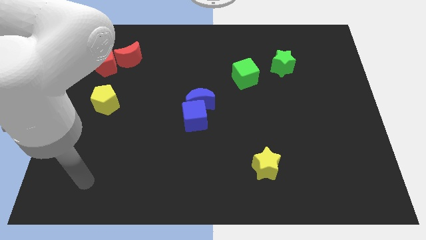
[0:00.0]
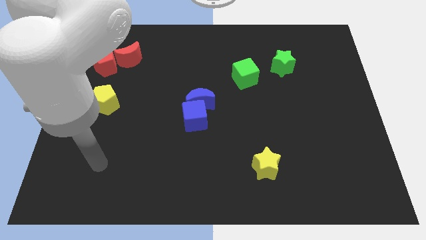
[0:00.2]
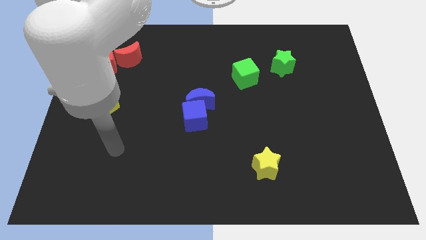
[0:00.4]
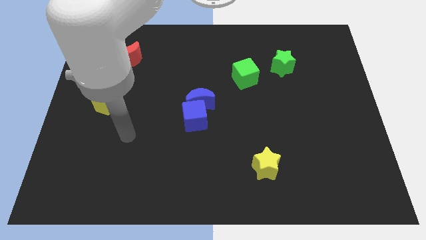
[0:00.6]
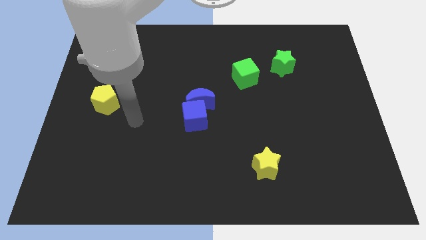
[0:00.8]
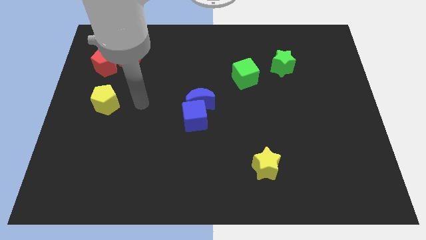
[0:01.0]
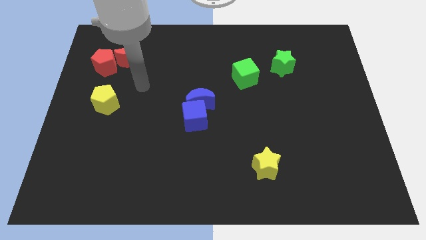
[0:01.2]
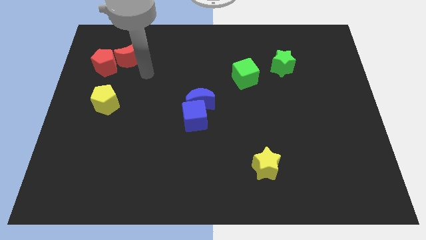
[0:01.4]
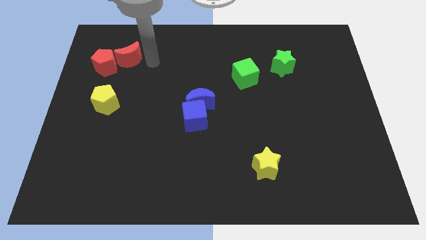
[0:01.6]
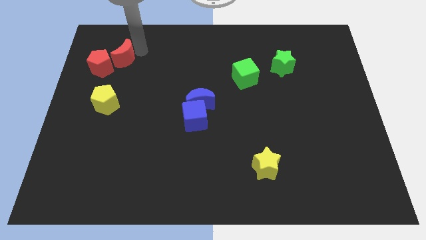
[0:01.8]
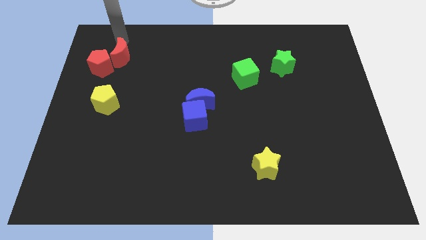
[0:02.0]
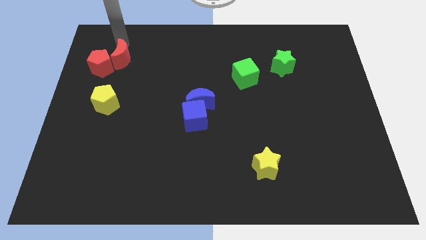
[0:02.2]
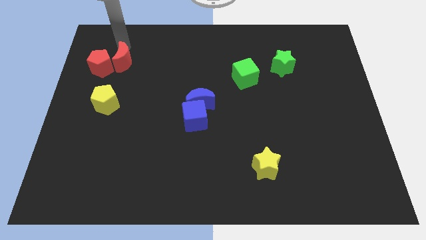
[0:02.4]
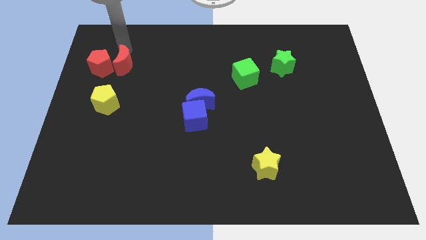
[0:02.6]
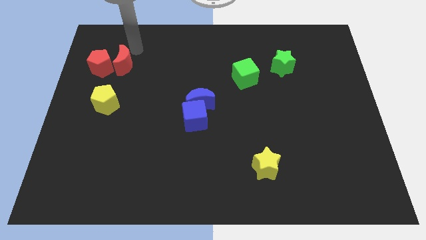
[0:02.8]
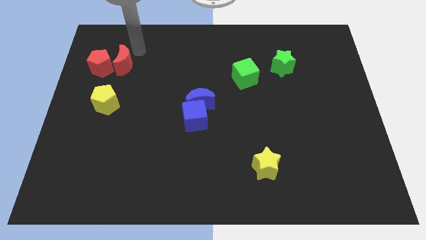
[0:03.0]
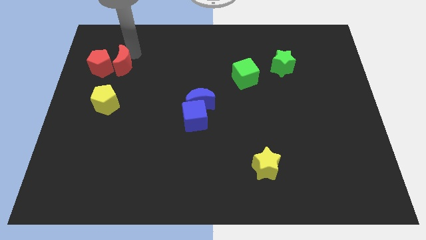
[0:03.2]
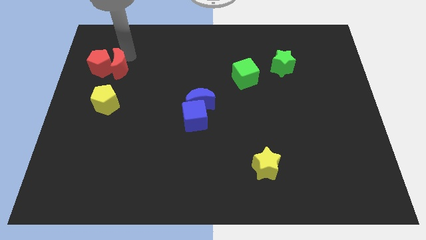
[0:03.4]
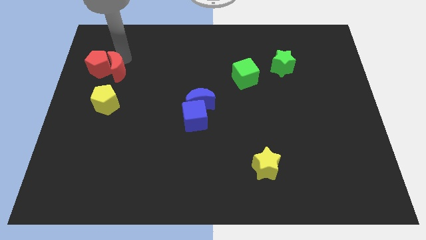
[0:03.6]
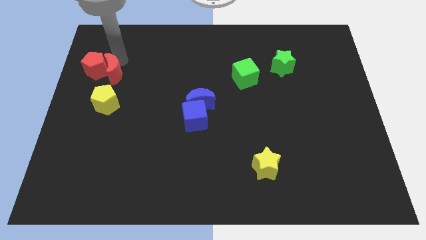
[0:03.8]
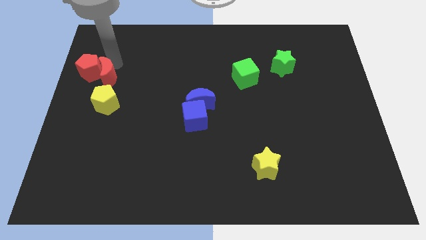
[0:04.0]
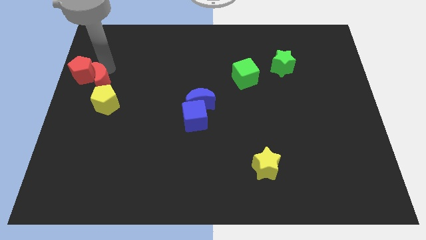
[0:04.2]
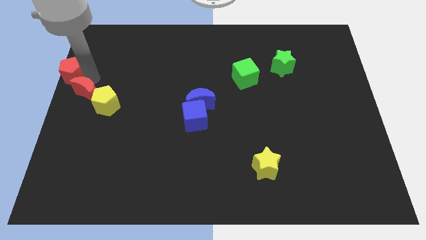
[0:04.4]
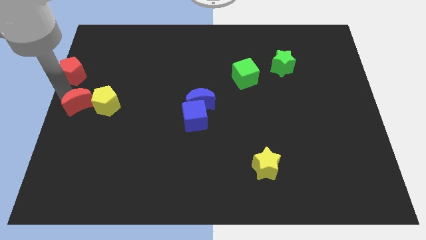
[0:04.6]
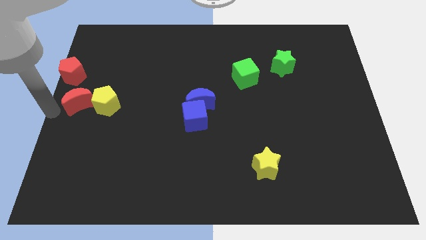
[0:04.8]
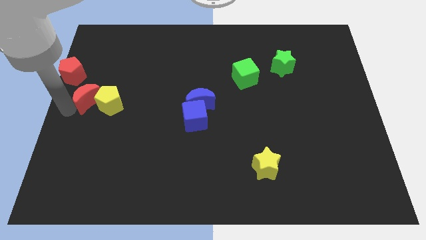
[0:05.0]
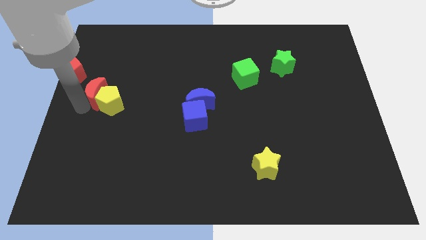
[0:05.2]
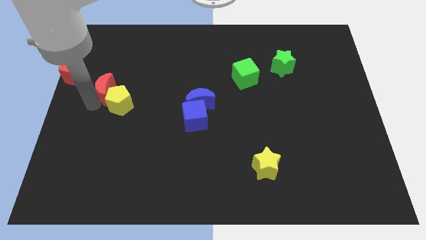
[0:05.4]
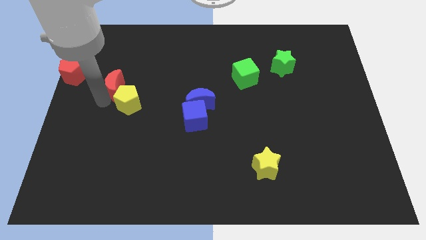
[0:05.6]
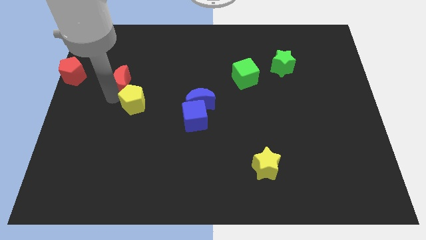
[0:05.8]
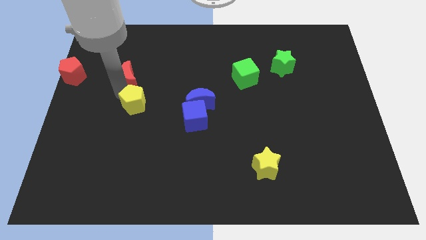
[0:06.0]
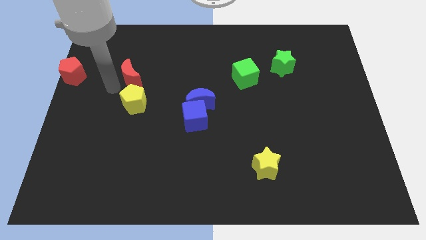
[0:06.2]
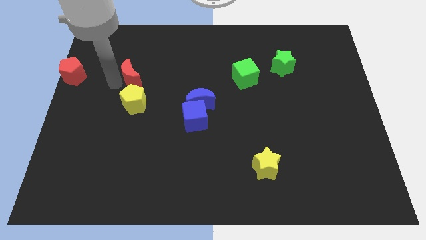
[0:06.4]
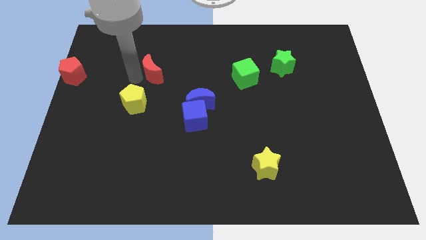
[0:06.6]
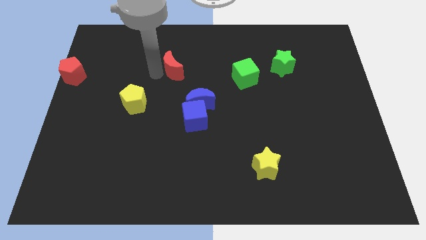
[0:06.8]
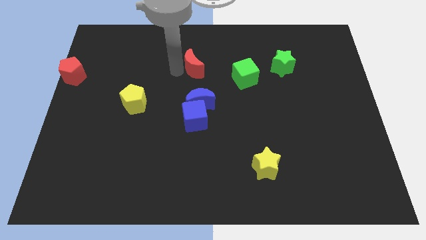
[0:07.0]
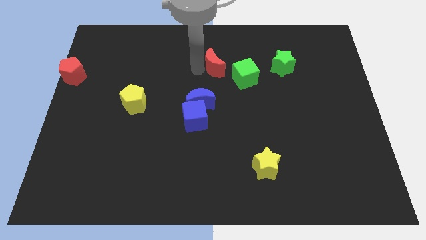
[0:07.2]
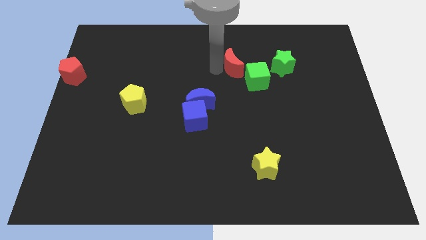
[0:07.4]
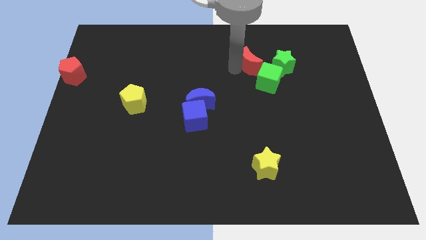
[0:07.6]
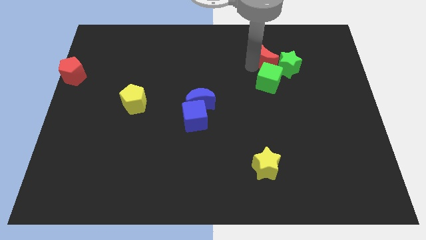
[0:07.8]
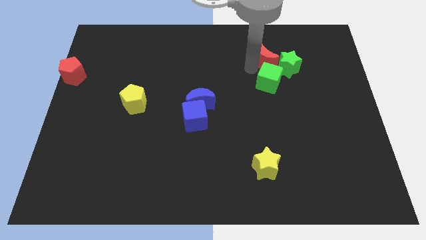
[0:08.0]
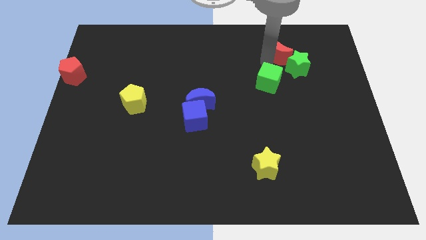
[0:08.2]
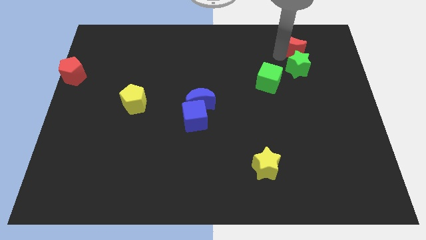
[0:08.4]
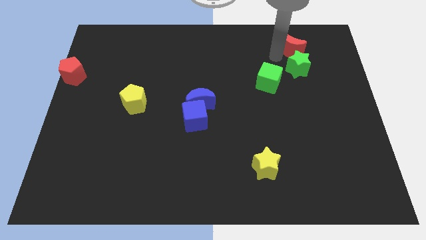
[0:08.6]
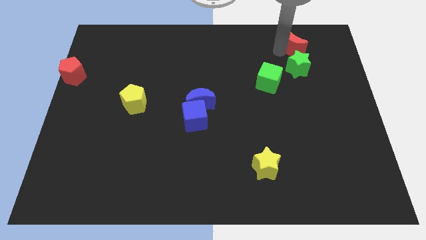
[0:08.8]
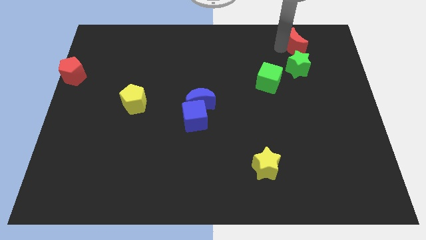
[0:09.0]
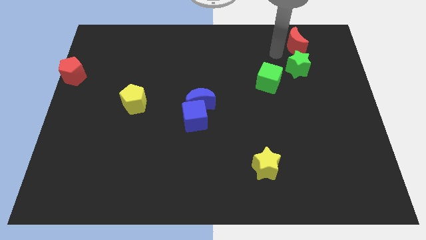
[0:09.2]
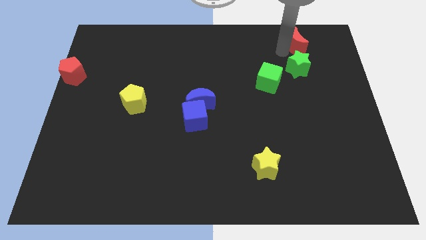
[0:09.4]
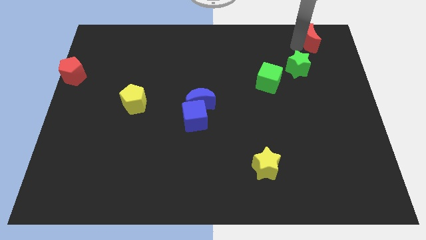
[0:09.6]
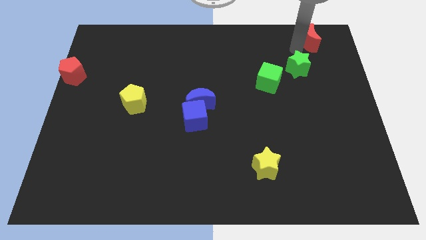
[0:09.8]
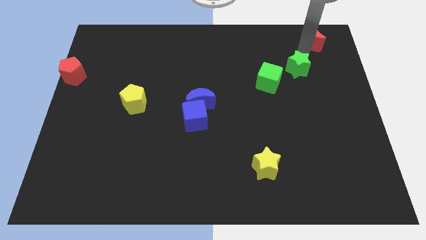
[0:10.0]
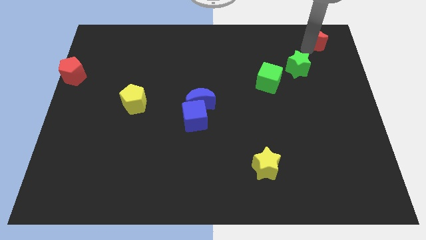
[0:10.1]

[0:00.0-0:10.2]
push the red moon to the top right corner

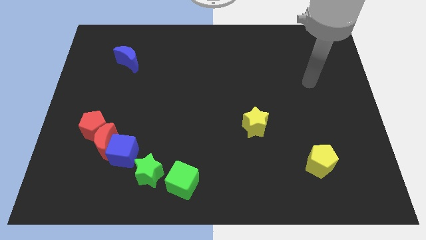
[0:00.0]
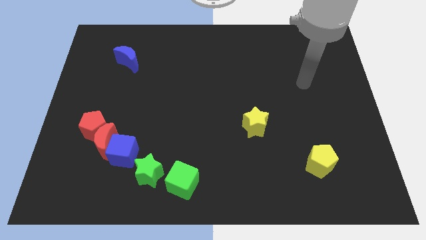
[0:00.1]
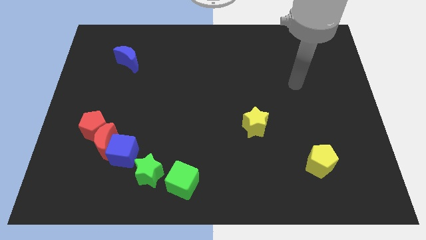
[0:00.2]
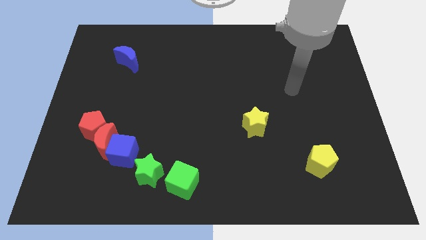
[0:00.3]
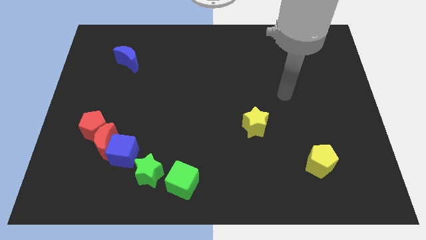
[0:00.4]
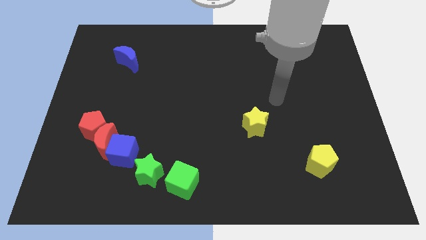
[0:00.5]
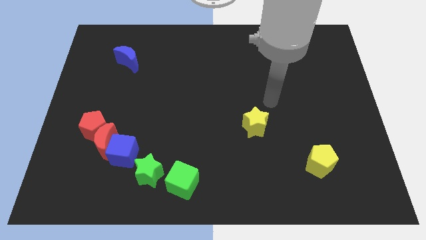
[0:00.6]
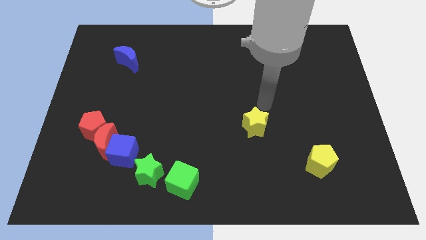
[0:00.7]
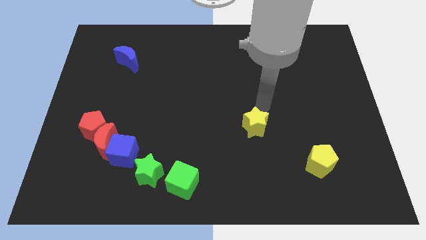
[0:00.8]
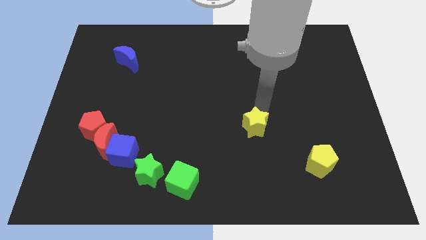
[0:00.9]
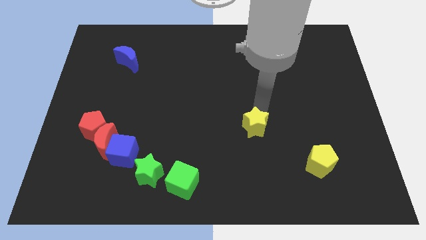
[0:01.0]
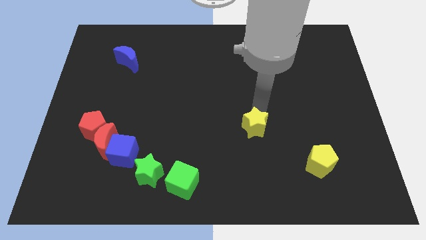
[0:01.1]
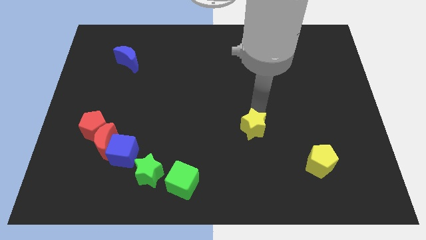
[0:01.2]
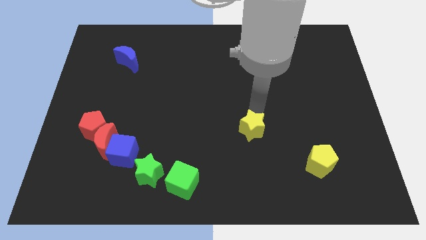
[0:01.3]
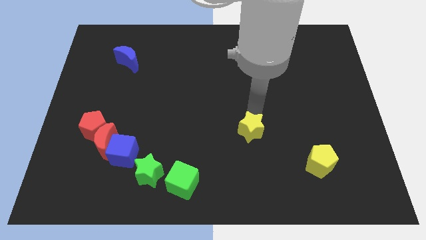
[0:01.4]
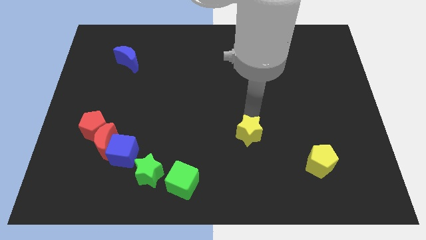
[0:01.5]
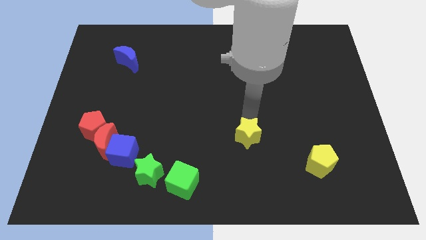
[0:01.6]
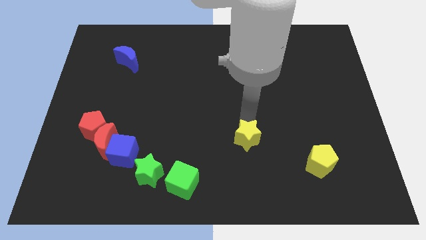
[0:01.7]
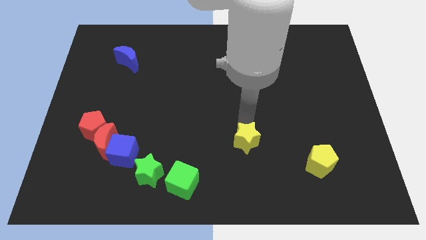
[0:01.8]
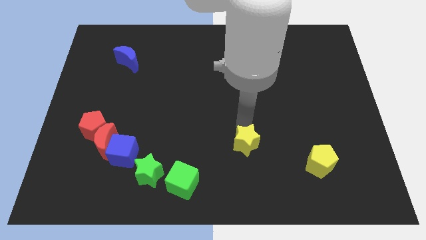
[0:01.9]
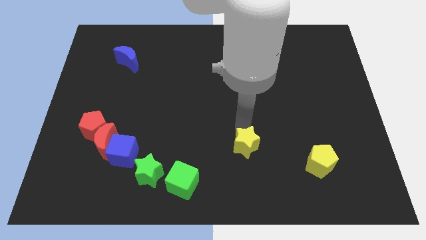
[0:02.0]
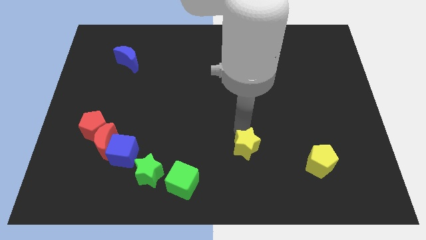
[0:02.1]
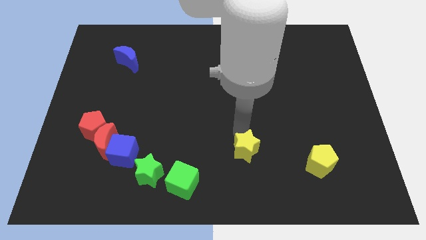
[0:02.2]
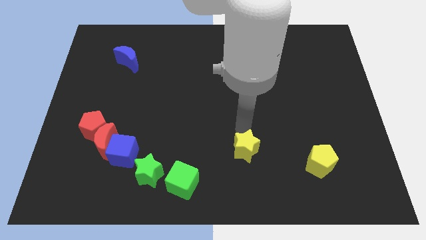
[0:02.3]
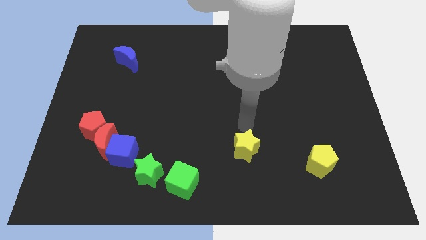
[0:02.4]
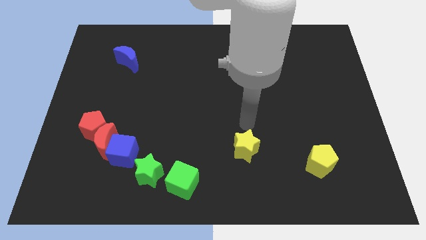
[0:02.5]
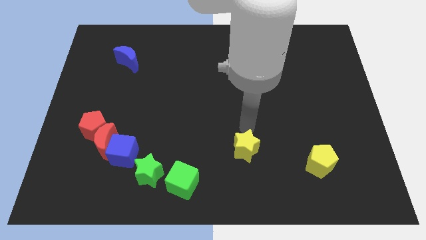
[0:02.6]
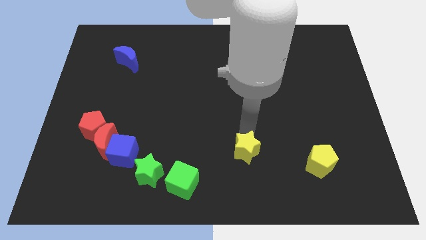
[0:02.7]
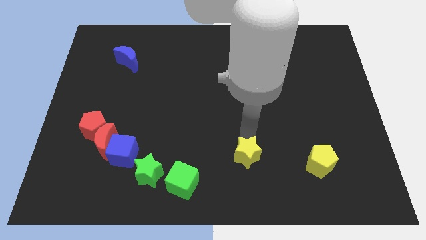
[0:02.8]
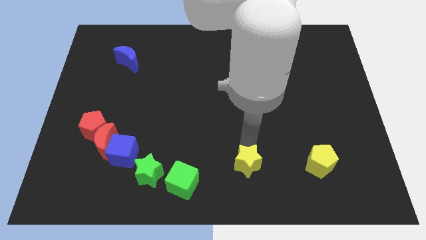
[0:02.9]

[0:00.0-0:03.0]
slide the yellow star to the bottom
